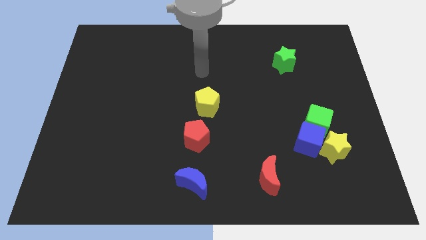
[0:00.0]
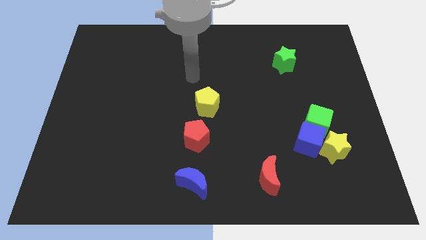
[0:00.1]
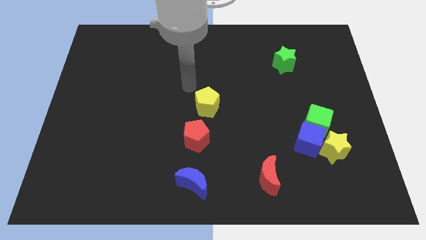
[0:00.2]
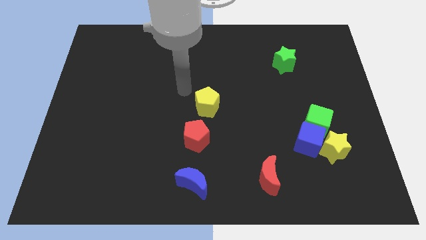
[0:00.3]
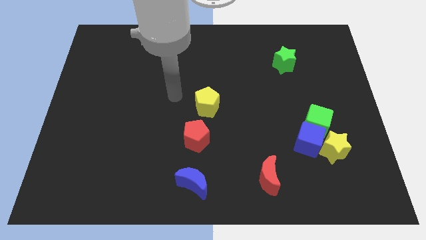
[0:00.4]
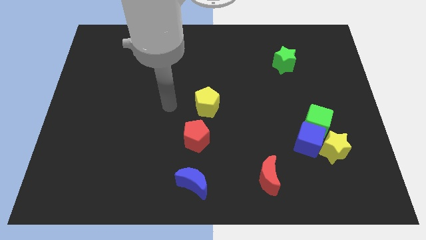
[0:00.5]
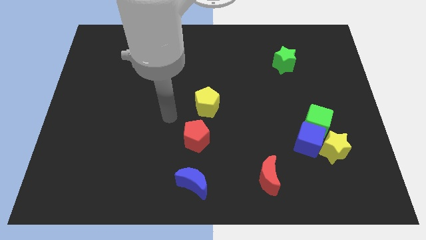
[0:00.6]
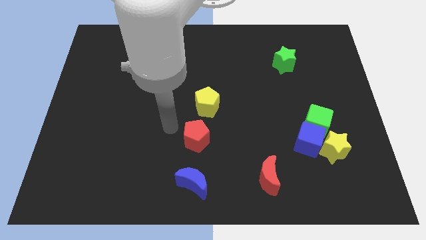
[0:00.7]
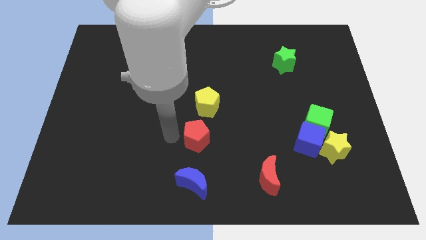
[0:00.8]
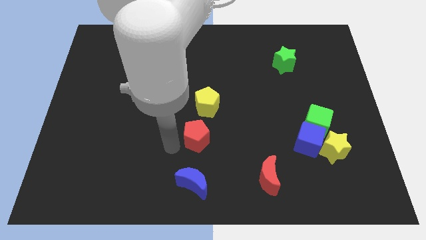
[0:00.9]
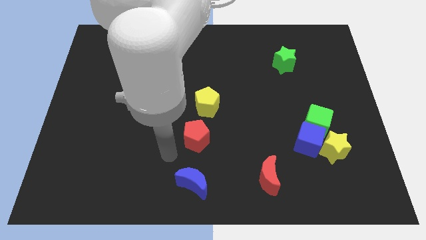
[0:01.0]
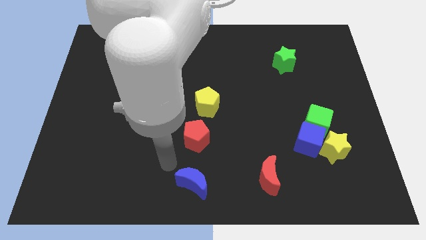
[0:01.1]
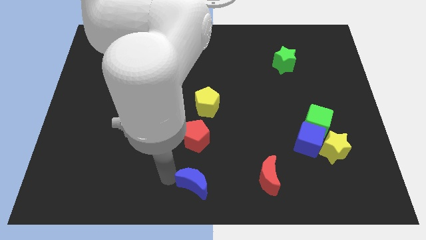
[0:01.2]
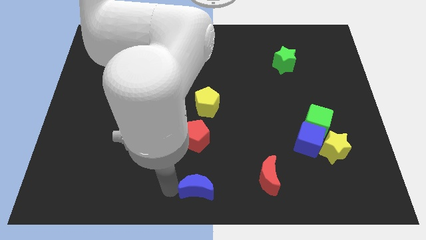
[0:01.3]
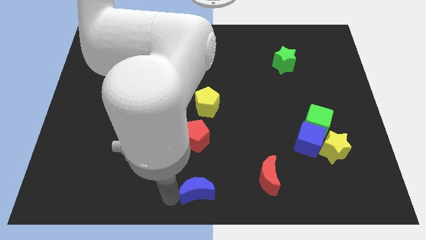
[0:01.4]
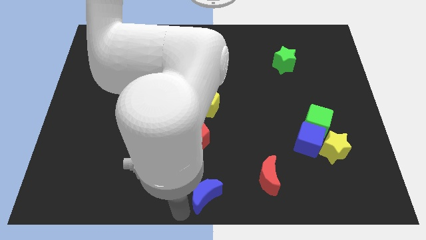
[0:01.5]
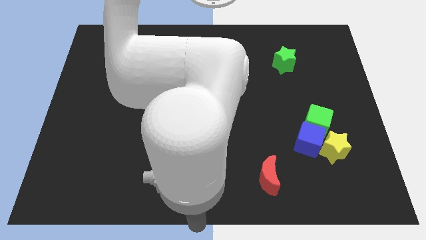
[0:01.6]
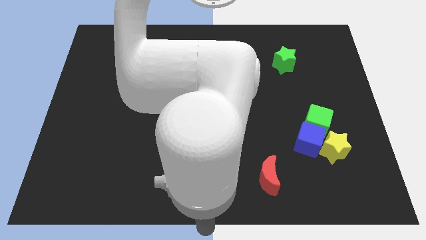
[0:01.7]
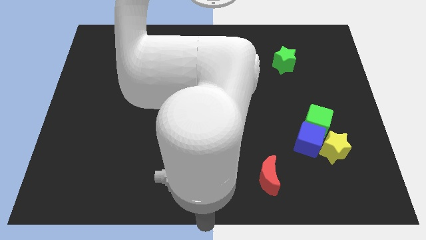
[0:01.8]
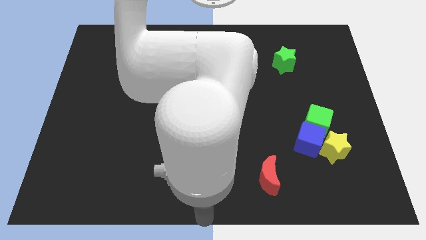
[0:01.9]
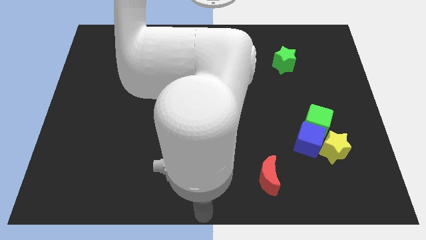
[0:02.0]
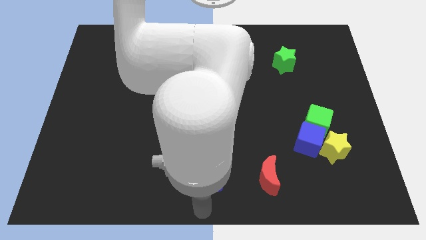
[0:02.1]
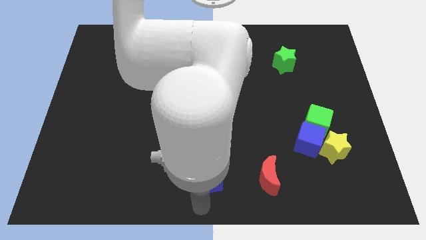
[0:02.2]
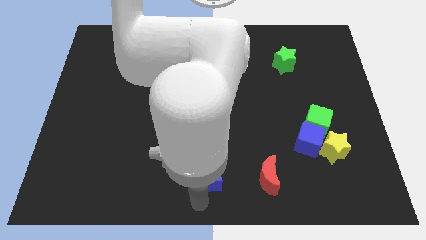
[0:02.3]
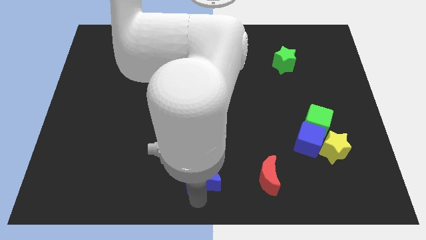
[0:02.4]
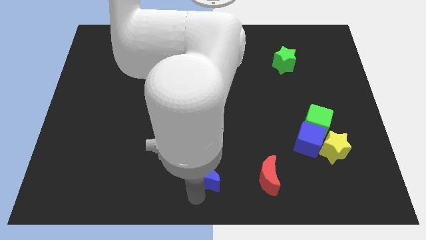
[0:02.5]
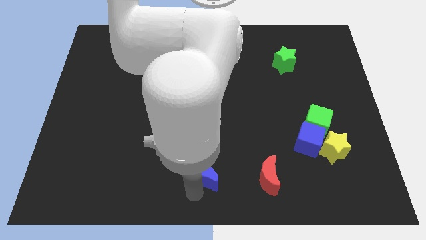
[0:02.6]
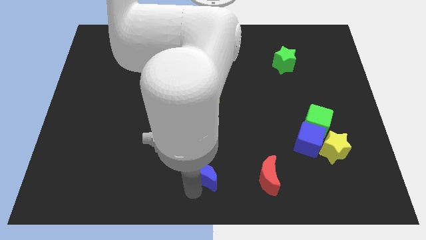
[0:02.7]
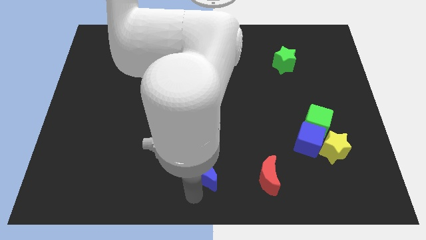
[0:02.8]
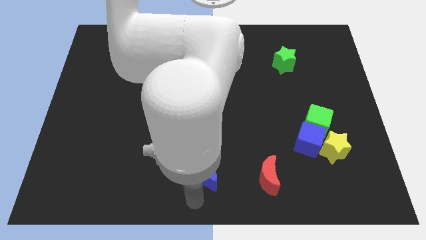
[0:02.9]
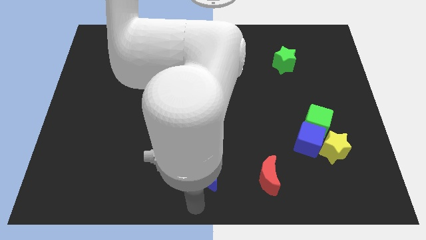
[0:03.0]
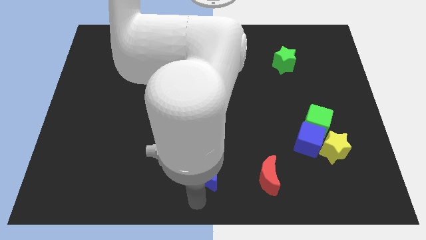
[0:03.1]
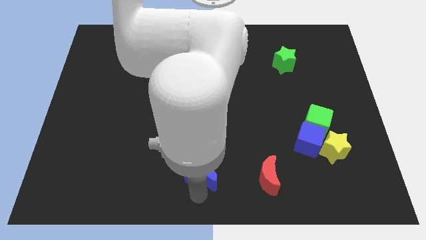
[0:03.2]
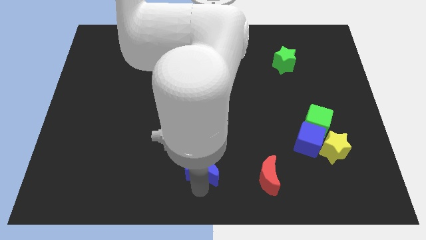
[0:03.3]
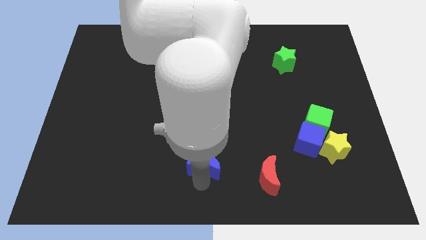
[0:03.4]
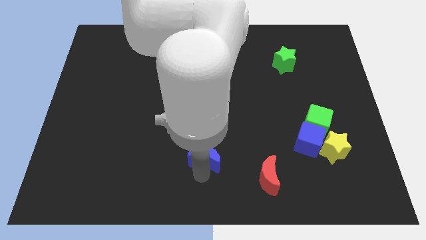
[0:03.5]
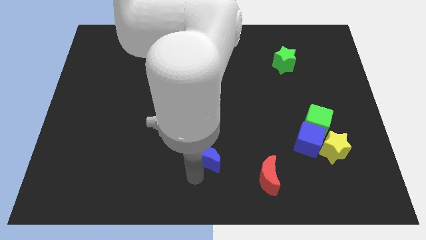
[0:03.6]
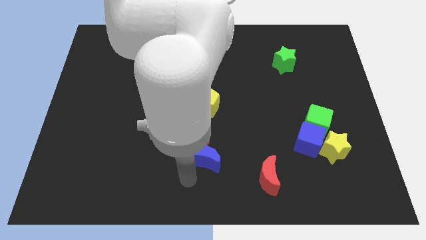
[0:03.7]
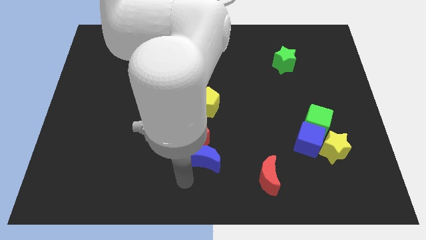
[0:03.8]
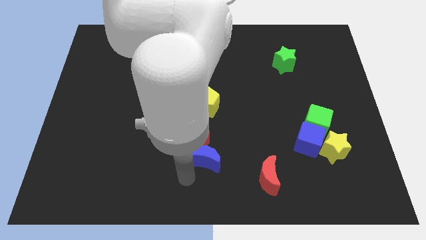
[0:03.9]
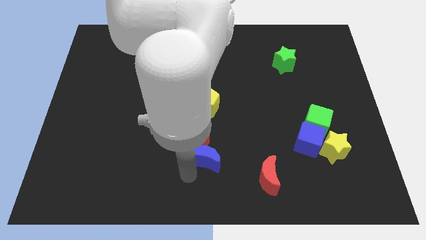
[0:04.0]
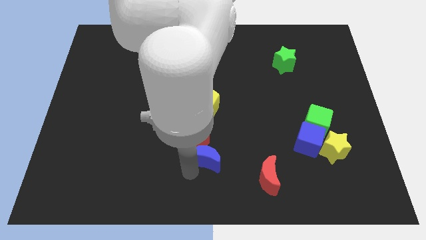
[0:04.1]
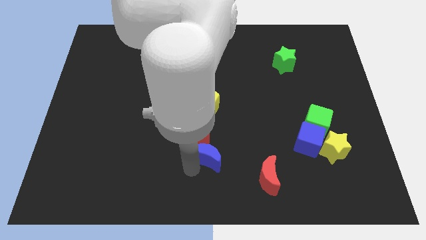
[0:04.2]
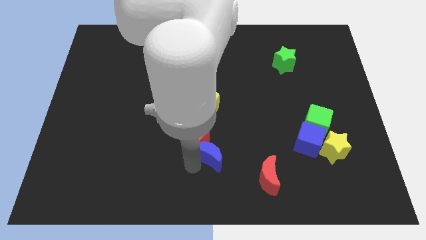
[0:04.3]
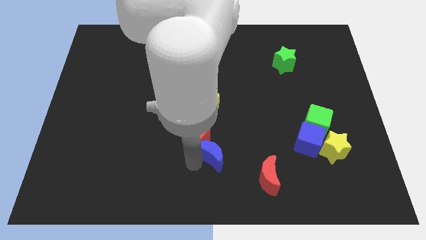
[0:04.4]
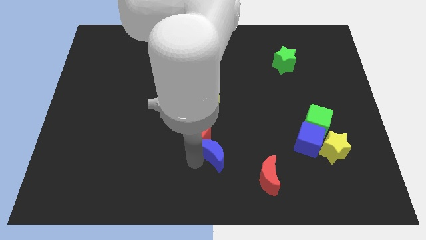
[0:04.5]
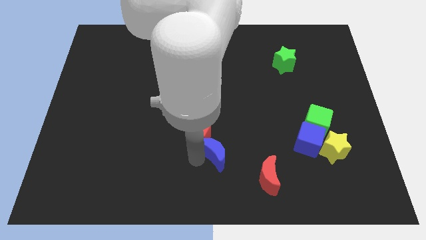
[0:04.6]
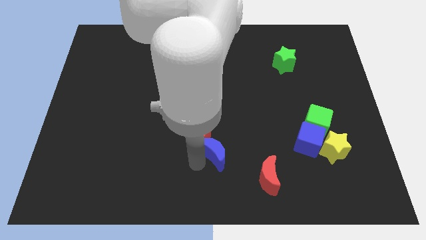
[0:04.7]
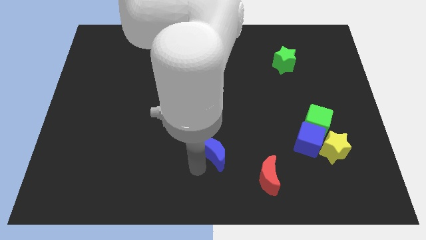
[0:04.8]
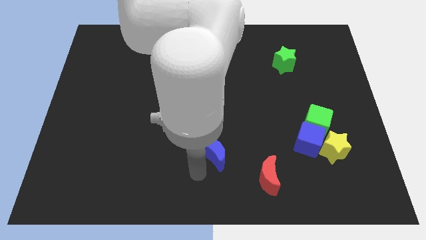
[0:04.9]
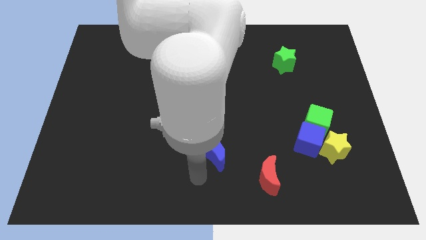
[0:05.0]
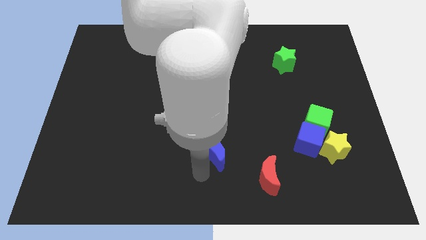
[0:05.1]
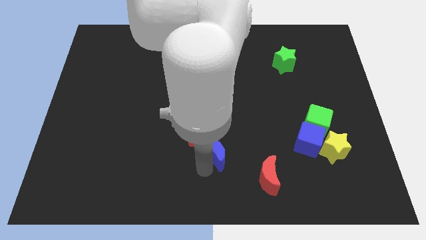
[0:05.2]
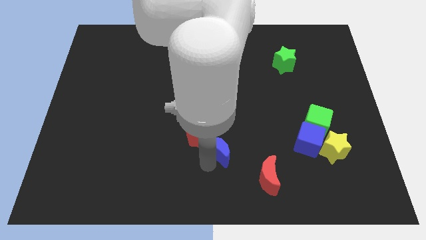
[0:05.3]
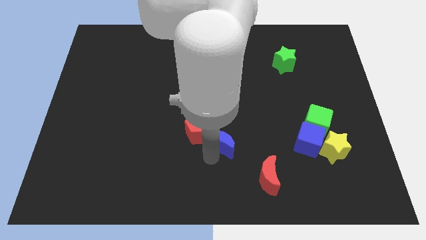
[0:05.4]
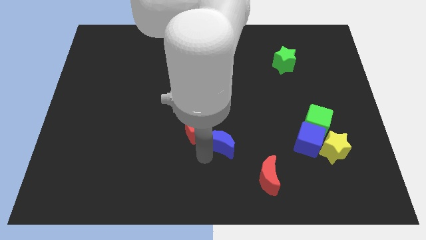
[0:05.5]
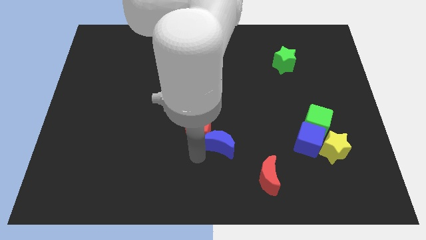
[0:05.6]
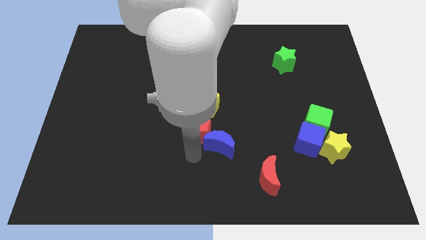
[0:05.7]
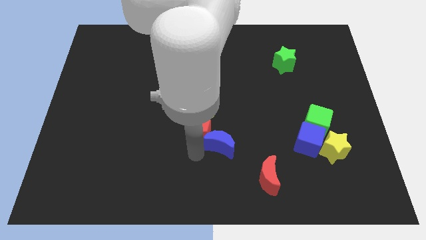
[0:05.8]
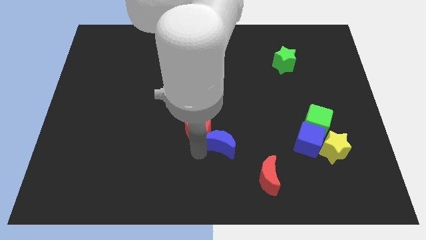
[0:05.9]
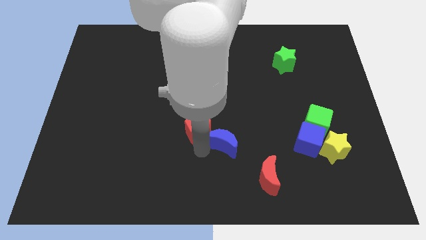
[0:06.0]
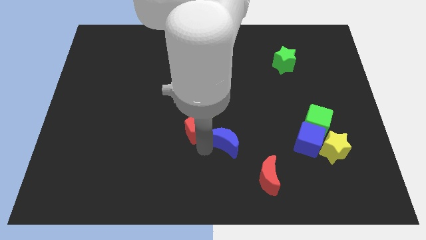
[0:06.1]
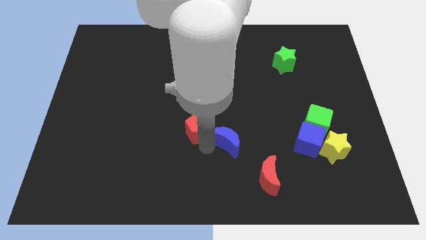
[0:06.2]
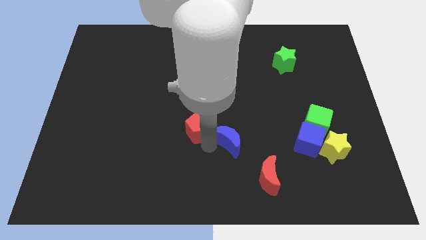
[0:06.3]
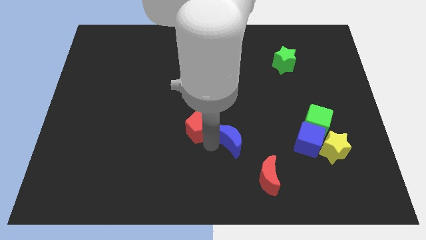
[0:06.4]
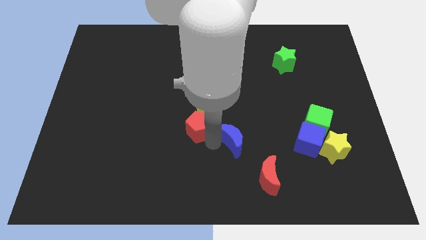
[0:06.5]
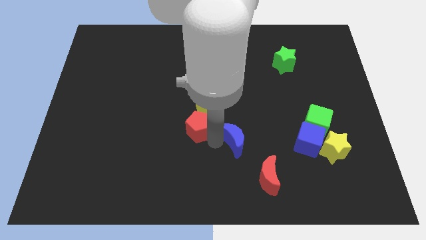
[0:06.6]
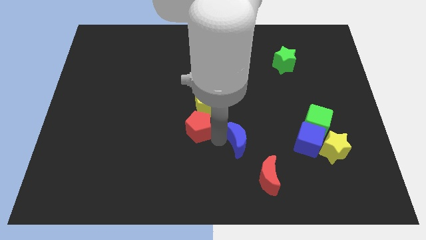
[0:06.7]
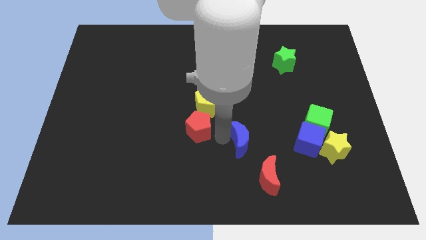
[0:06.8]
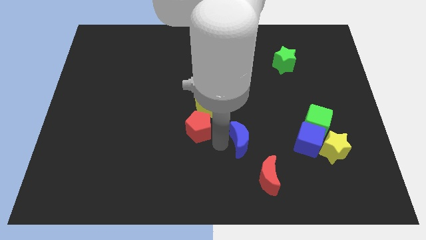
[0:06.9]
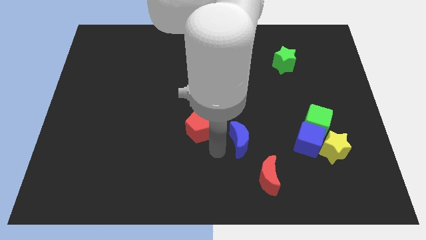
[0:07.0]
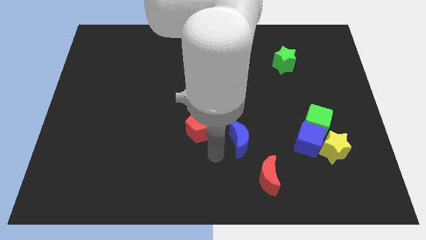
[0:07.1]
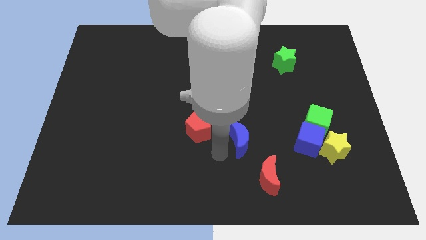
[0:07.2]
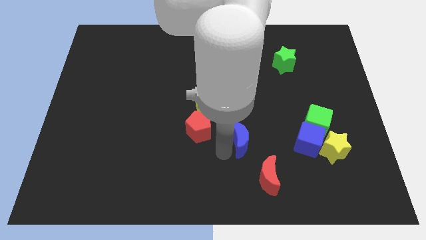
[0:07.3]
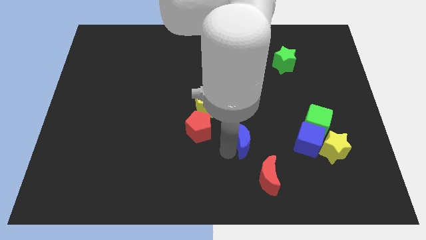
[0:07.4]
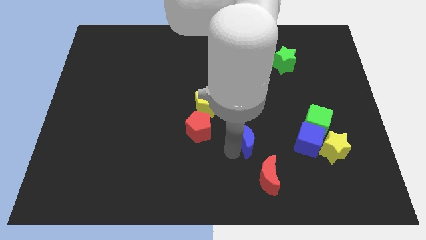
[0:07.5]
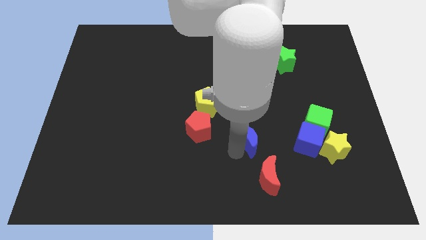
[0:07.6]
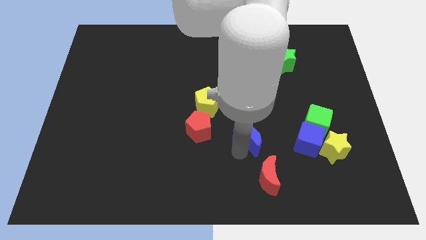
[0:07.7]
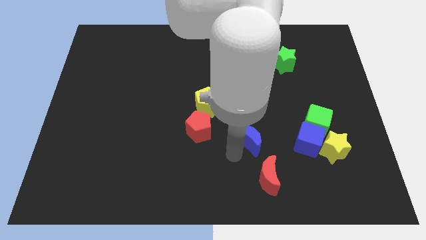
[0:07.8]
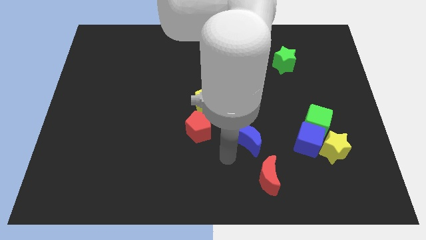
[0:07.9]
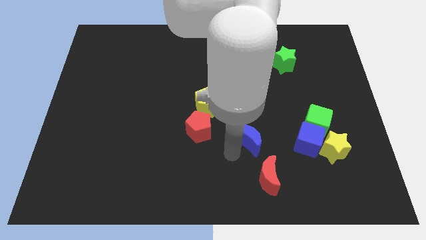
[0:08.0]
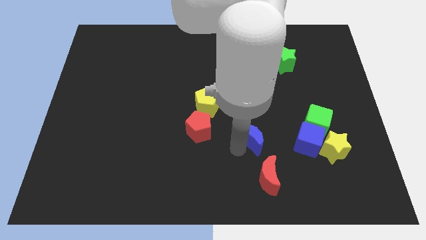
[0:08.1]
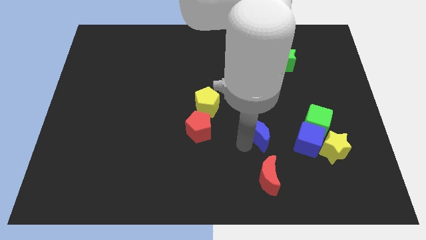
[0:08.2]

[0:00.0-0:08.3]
move the blue moon just left of the green cube
